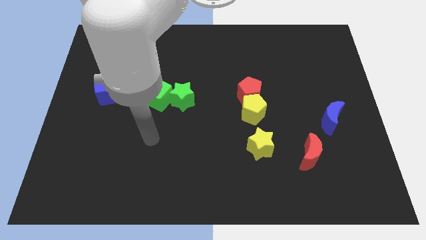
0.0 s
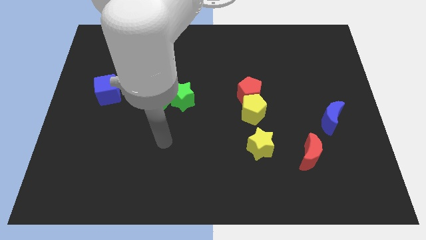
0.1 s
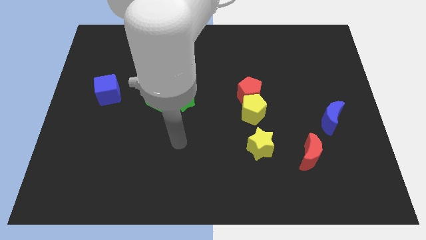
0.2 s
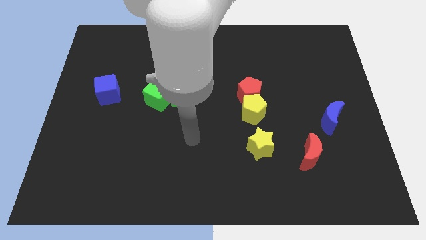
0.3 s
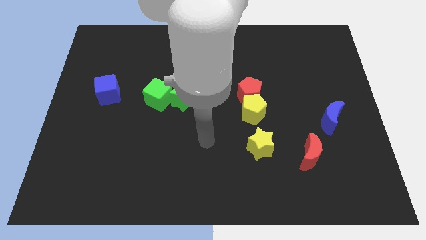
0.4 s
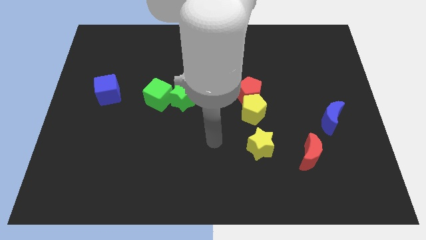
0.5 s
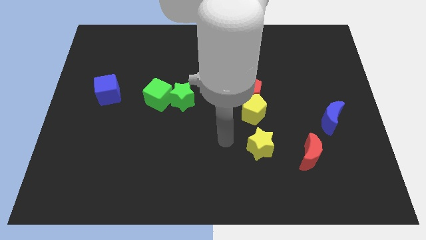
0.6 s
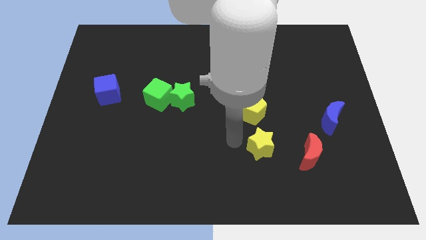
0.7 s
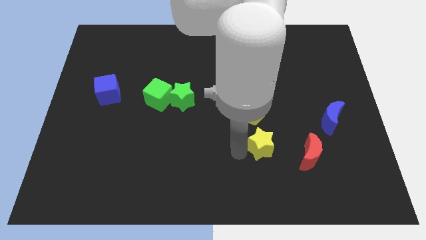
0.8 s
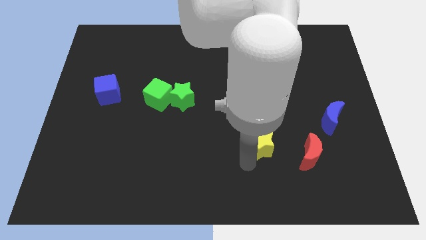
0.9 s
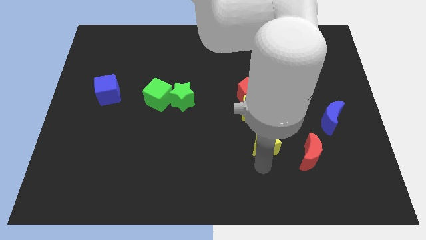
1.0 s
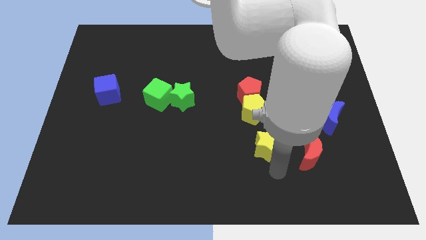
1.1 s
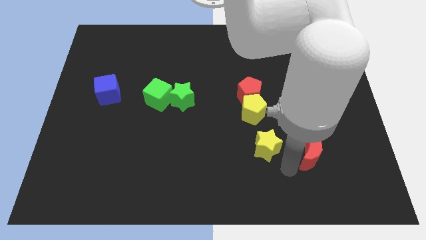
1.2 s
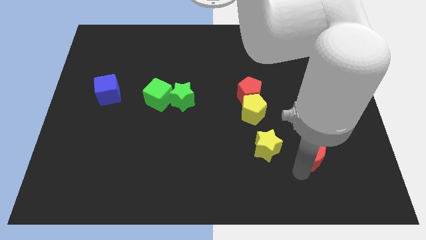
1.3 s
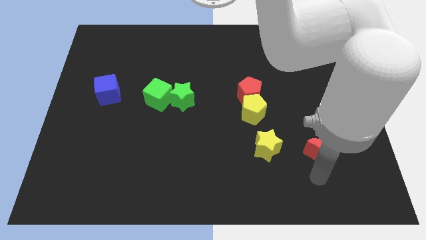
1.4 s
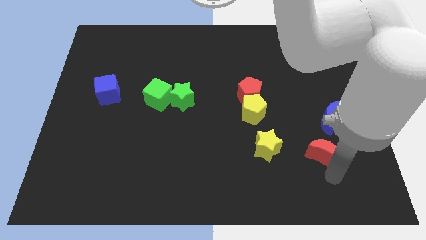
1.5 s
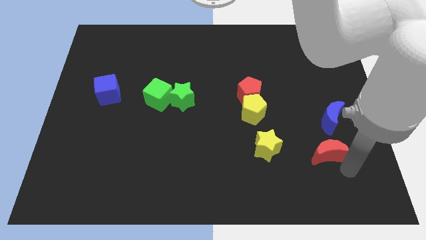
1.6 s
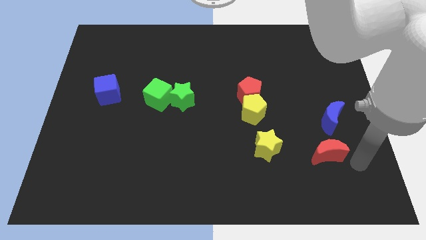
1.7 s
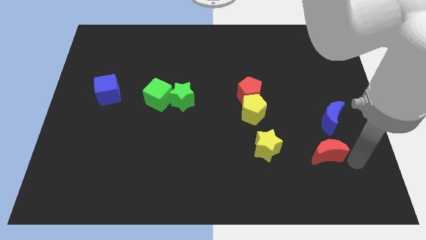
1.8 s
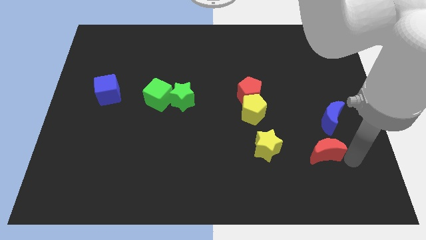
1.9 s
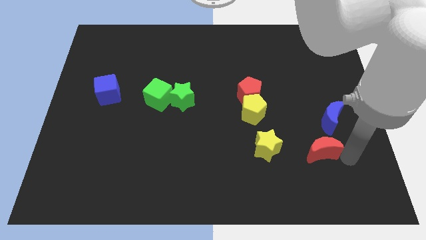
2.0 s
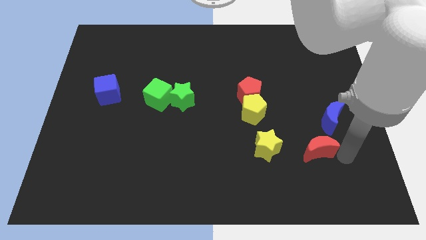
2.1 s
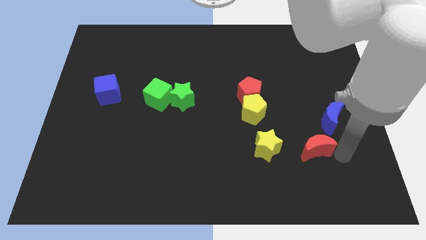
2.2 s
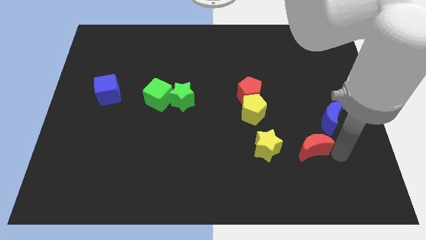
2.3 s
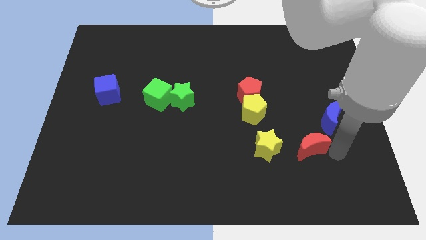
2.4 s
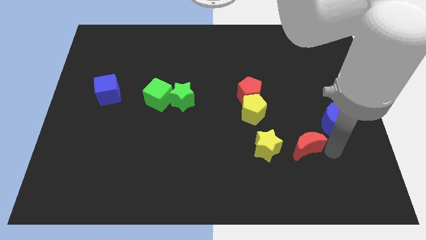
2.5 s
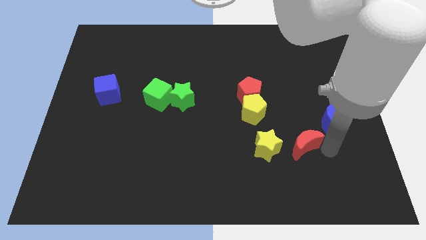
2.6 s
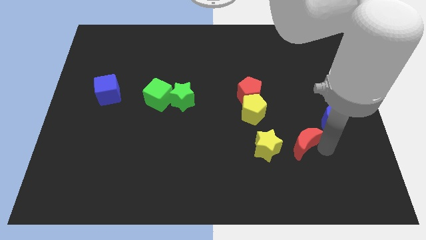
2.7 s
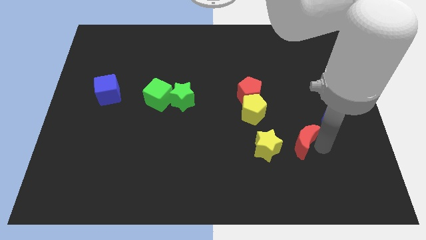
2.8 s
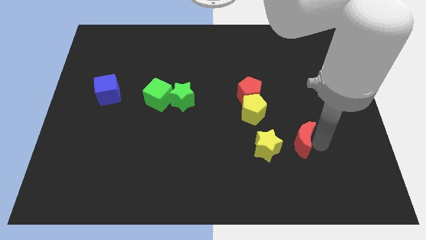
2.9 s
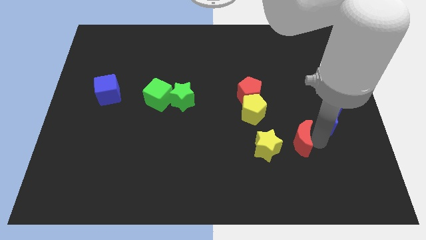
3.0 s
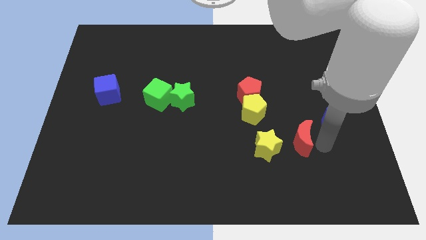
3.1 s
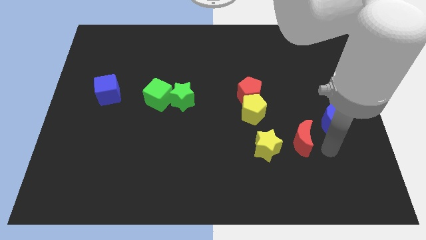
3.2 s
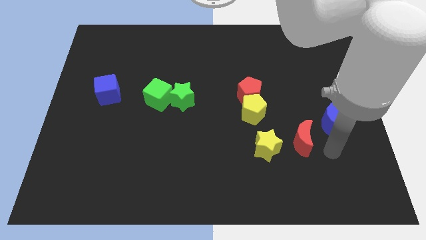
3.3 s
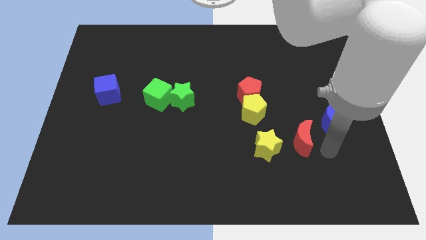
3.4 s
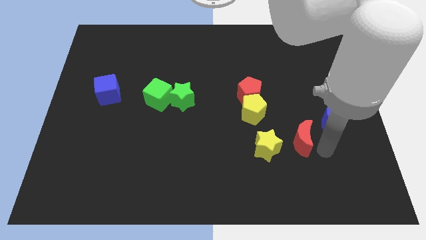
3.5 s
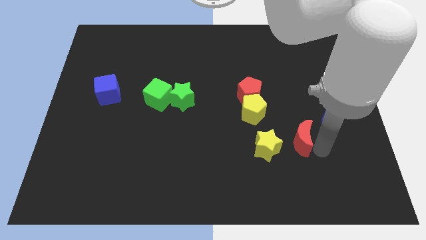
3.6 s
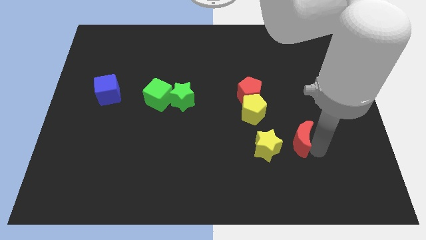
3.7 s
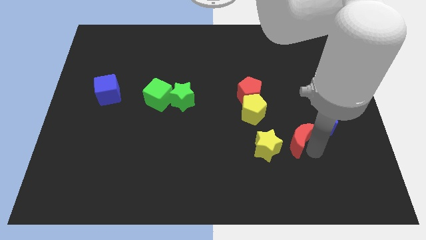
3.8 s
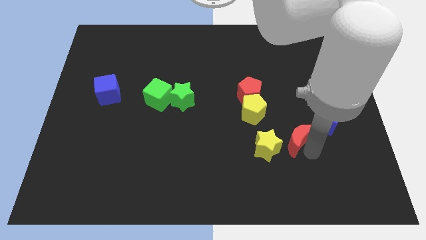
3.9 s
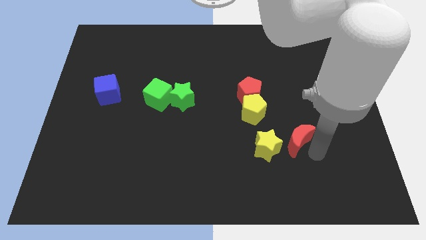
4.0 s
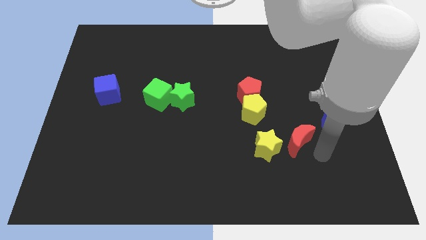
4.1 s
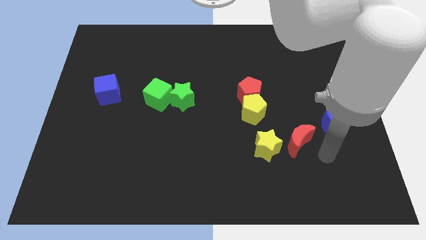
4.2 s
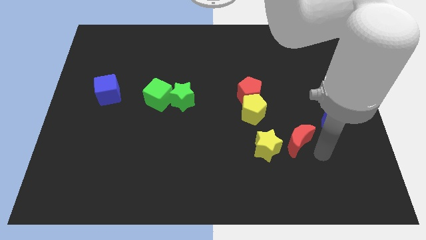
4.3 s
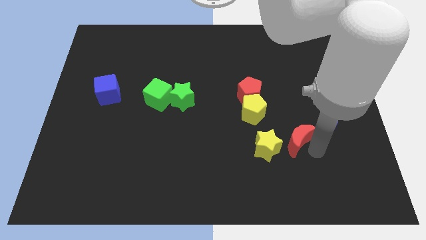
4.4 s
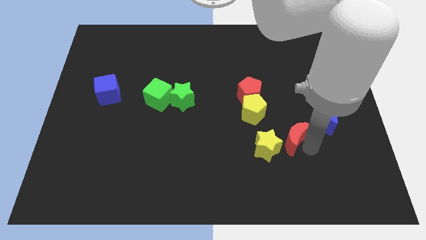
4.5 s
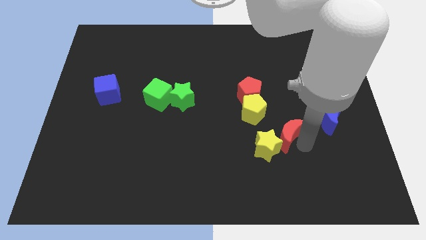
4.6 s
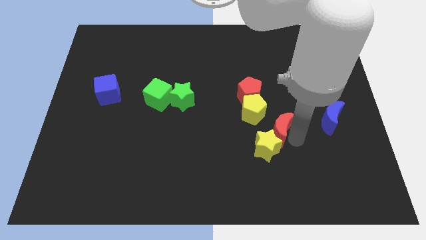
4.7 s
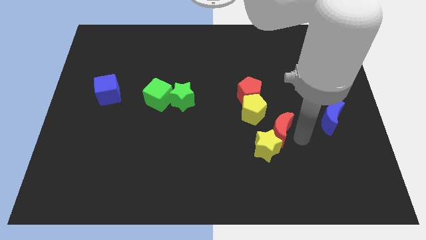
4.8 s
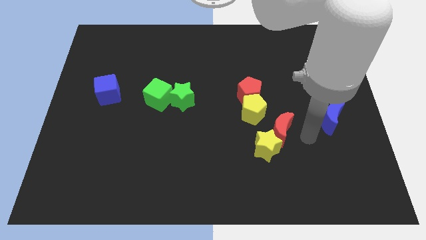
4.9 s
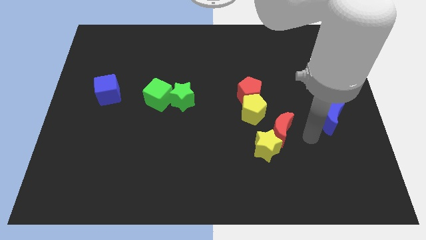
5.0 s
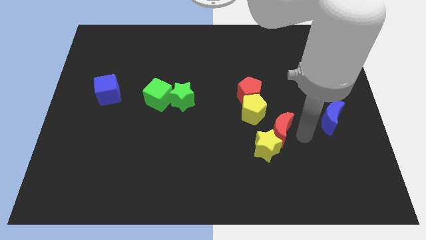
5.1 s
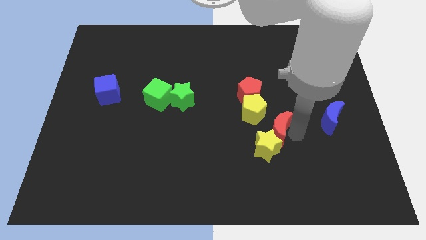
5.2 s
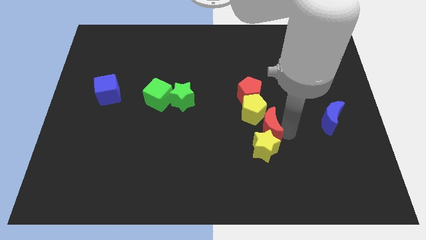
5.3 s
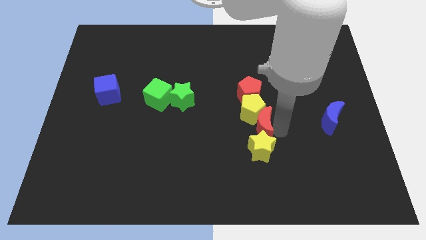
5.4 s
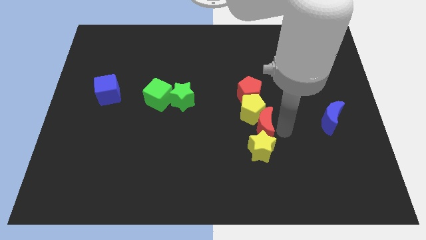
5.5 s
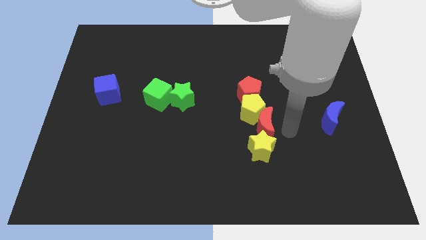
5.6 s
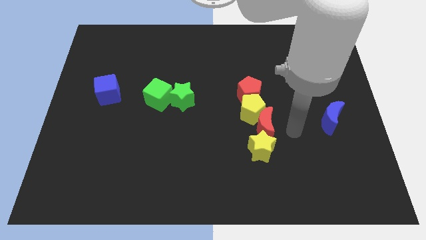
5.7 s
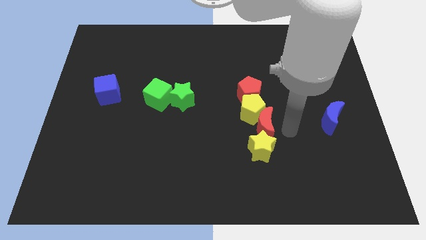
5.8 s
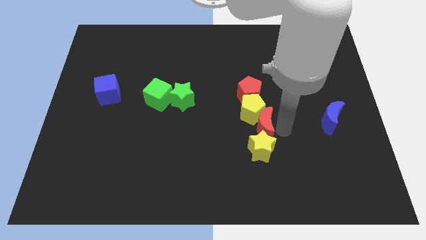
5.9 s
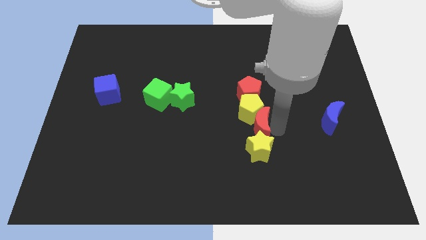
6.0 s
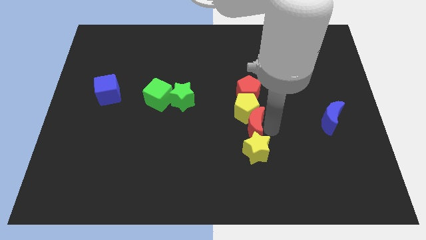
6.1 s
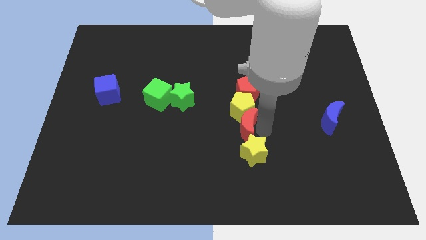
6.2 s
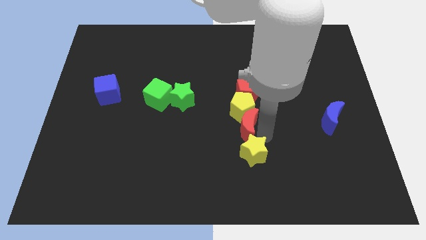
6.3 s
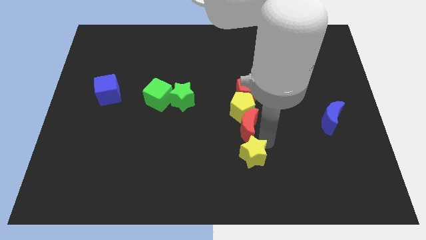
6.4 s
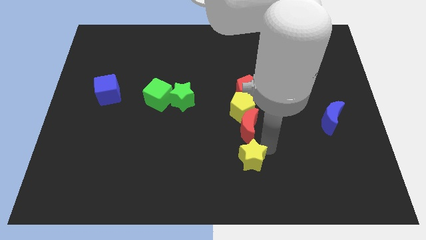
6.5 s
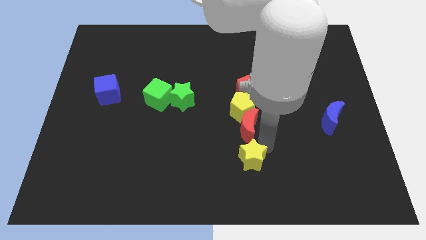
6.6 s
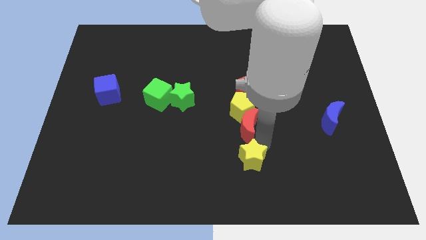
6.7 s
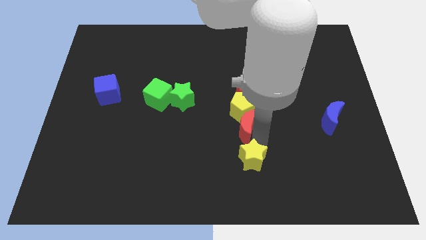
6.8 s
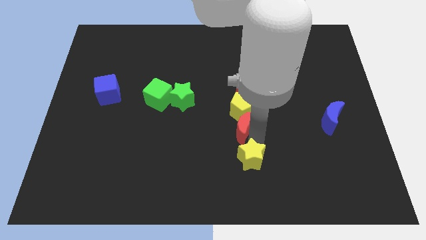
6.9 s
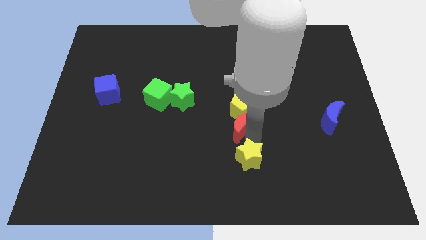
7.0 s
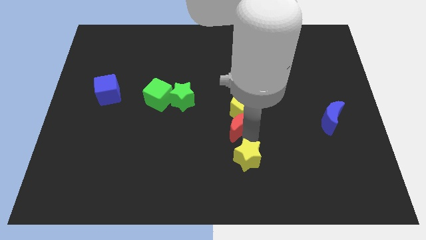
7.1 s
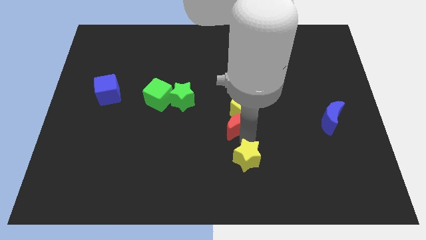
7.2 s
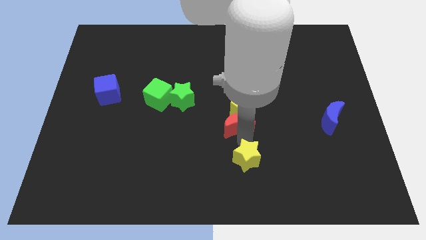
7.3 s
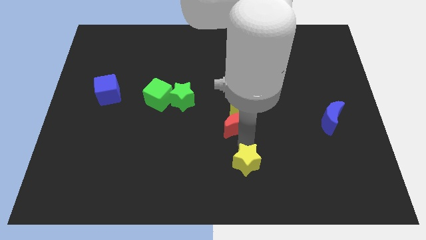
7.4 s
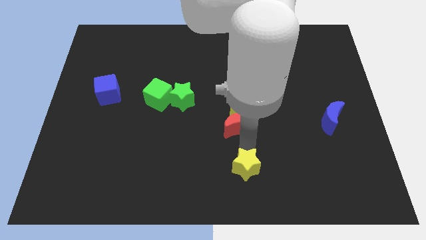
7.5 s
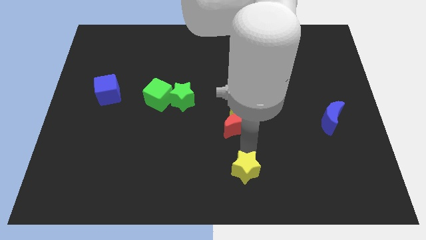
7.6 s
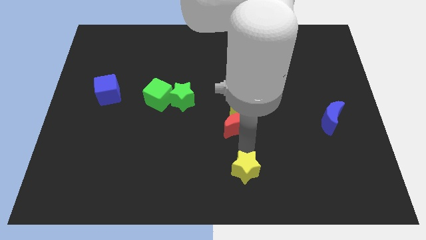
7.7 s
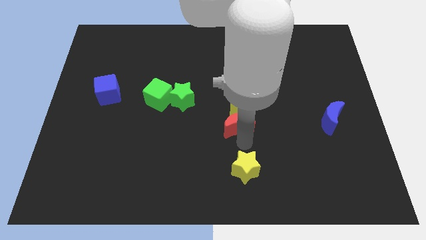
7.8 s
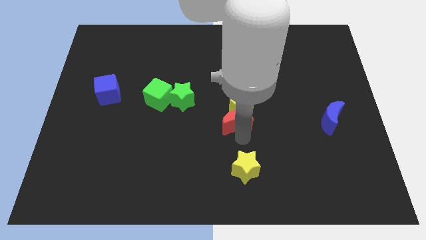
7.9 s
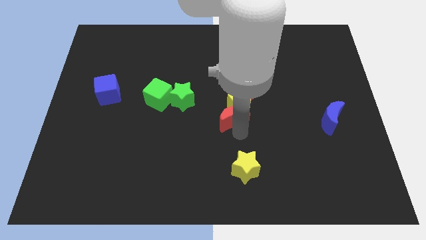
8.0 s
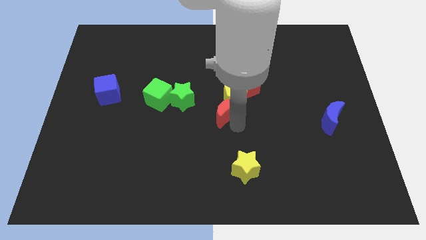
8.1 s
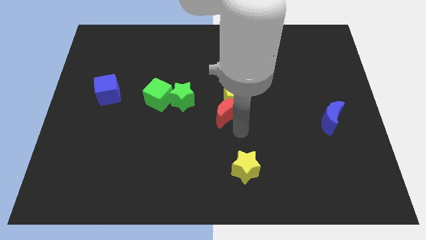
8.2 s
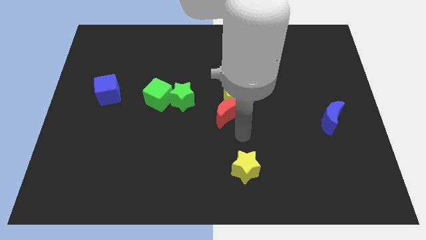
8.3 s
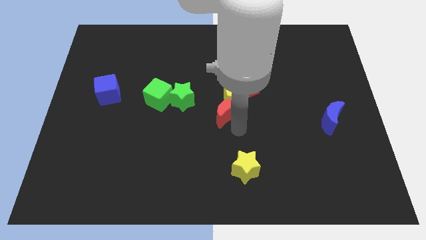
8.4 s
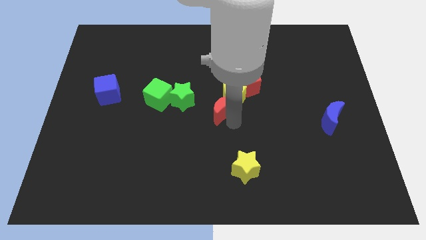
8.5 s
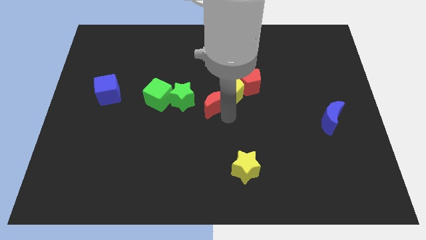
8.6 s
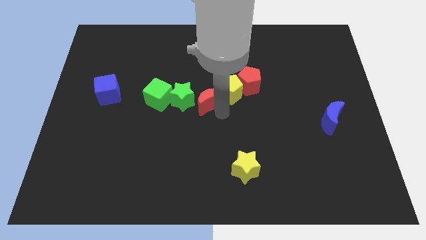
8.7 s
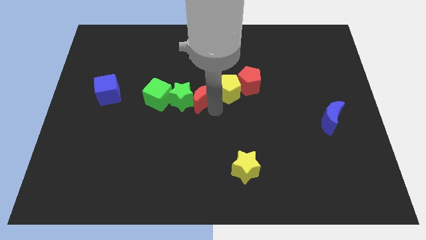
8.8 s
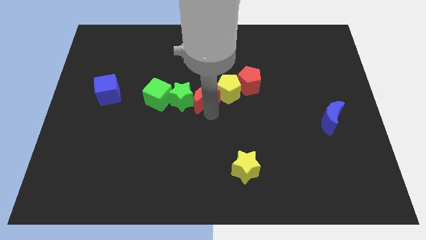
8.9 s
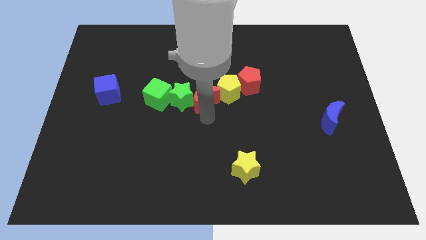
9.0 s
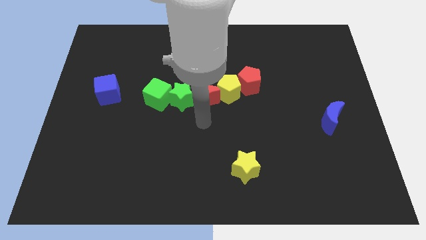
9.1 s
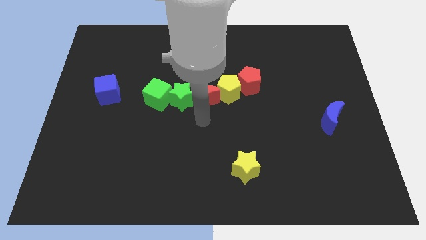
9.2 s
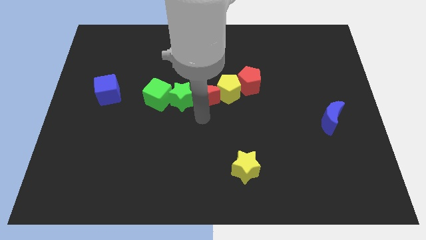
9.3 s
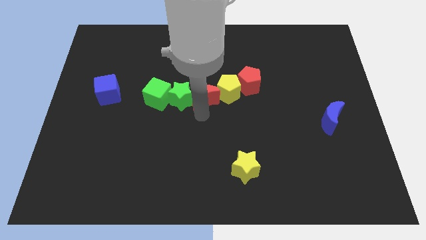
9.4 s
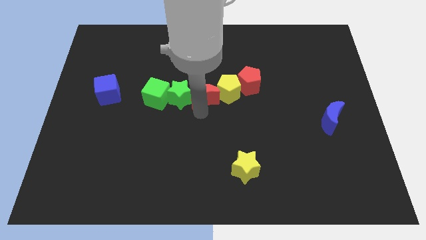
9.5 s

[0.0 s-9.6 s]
push the red moon to the left of the red pentagon
